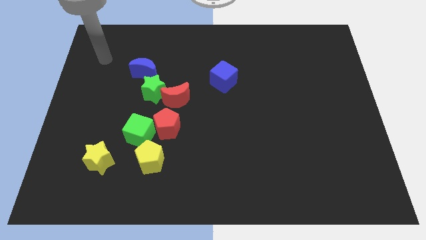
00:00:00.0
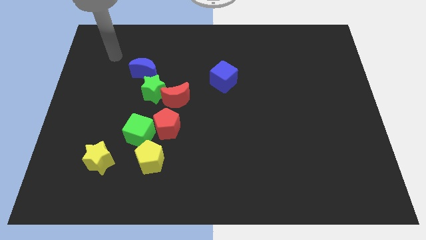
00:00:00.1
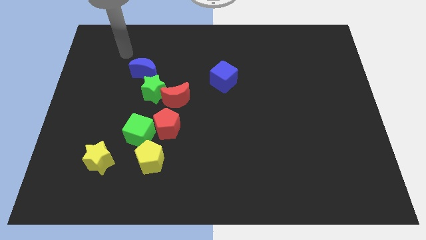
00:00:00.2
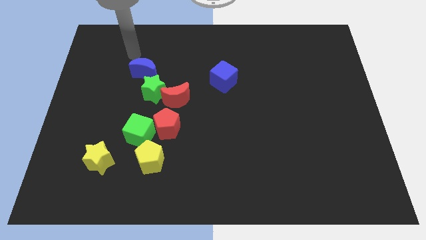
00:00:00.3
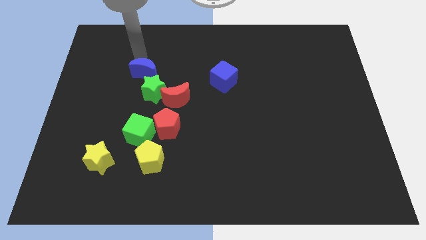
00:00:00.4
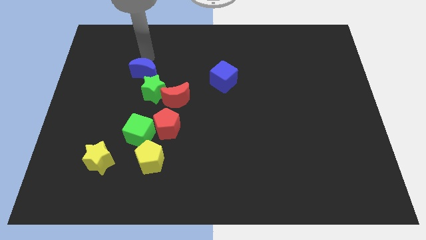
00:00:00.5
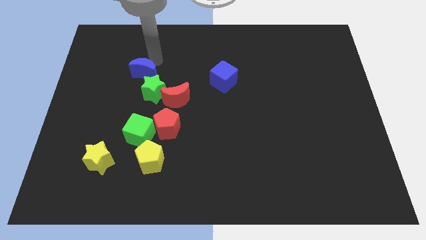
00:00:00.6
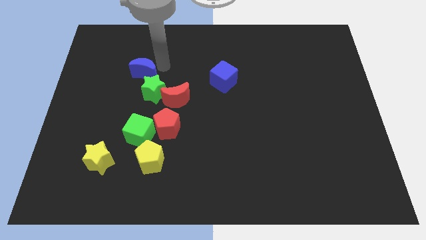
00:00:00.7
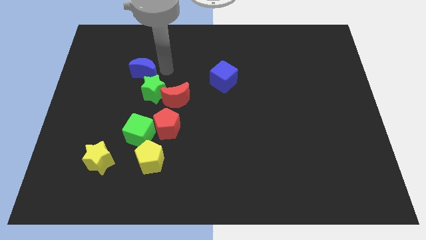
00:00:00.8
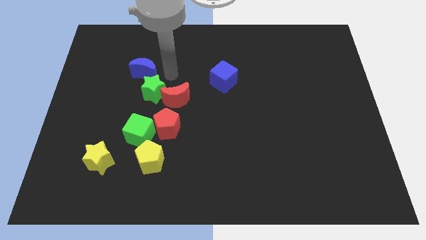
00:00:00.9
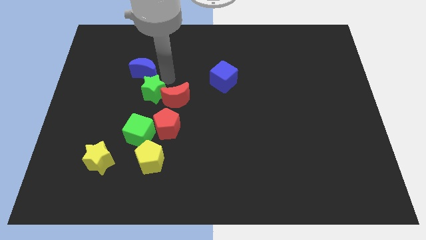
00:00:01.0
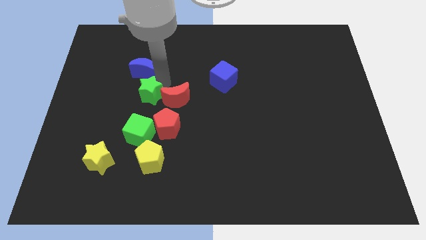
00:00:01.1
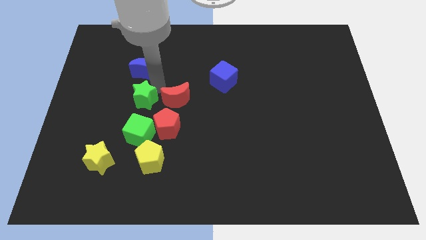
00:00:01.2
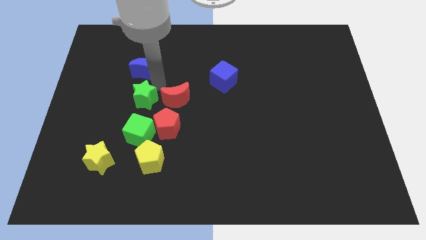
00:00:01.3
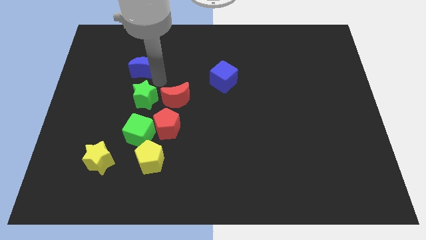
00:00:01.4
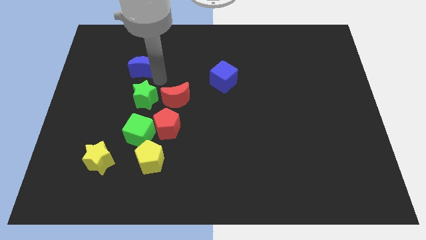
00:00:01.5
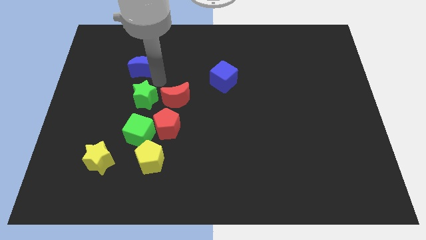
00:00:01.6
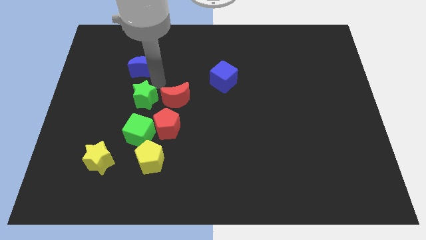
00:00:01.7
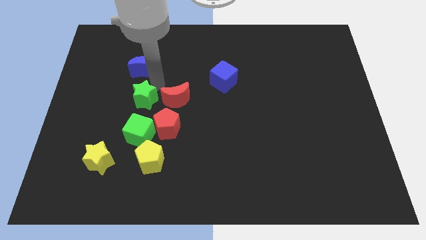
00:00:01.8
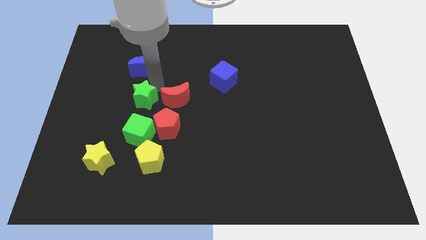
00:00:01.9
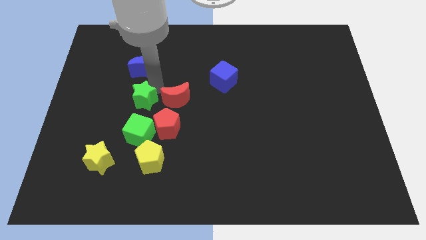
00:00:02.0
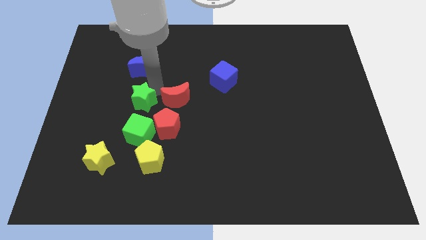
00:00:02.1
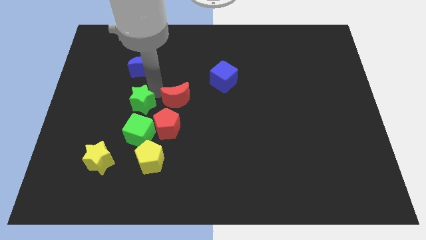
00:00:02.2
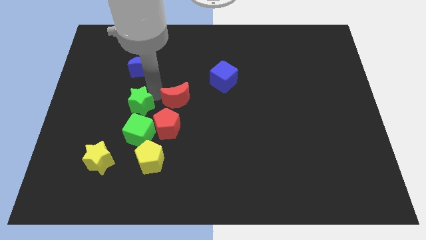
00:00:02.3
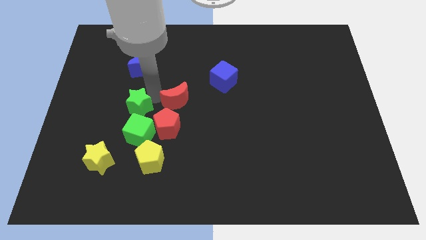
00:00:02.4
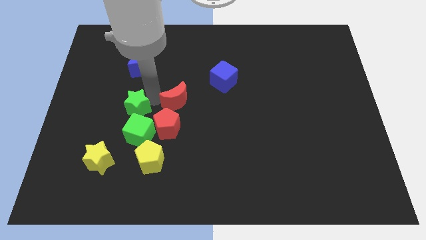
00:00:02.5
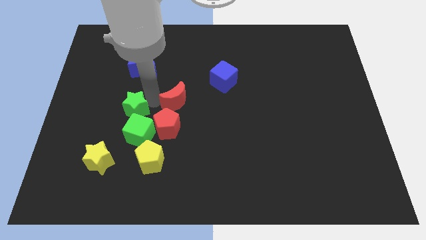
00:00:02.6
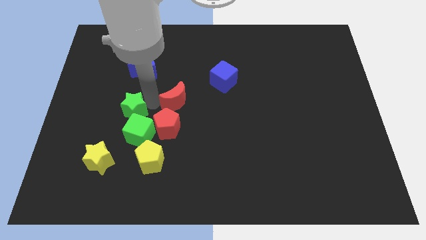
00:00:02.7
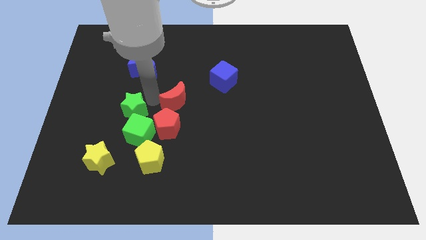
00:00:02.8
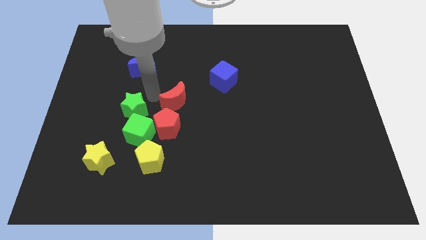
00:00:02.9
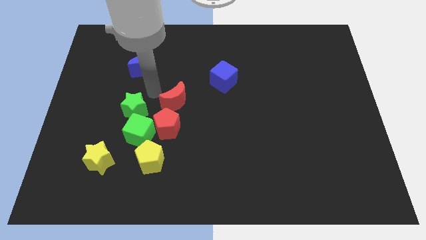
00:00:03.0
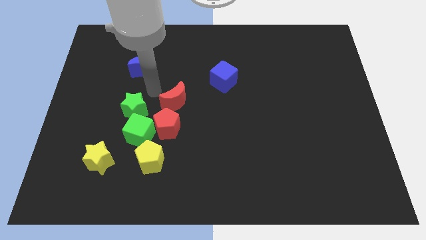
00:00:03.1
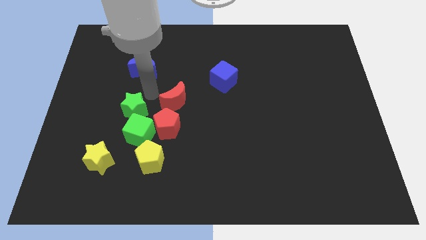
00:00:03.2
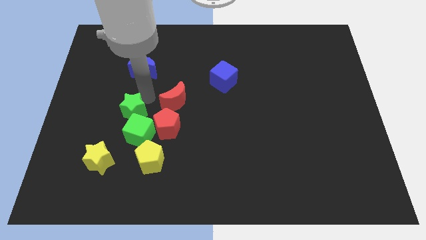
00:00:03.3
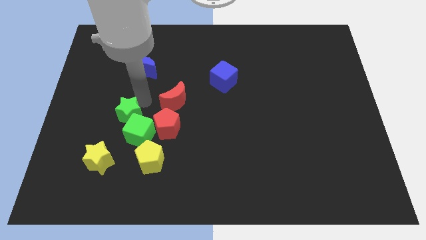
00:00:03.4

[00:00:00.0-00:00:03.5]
move the green star away from the red moon and blue moon

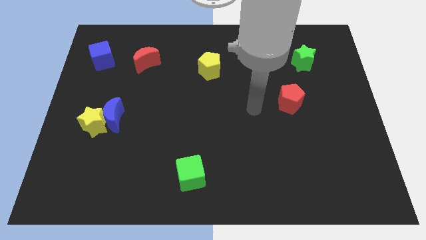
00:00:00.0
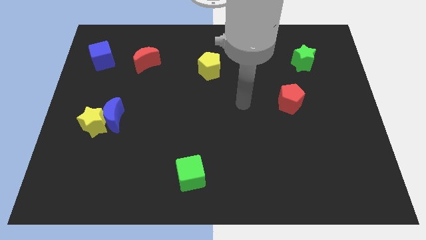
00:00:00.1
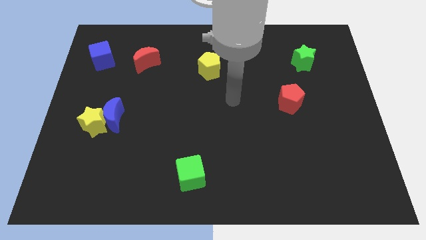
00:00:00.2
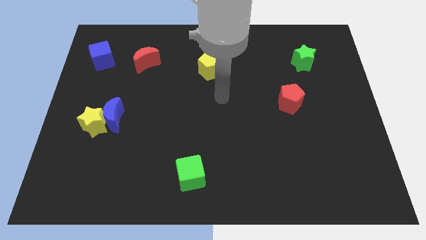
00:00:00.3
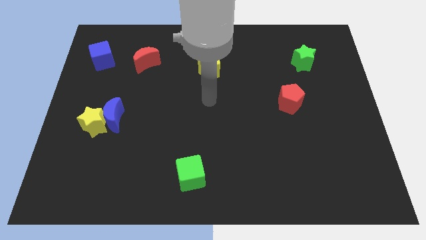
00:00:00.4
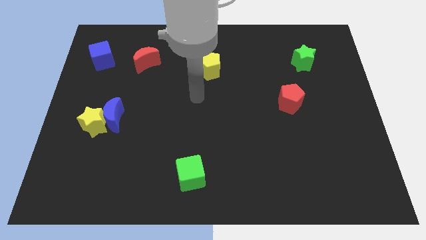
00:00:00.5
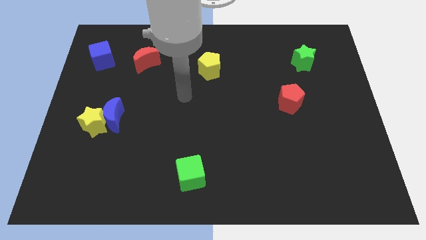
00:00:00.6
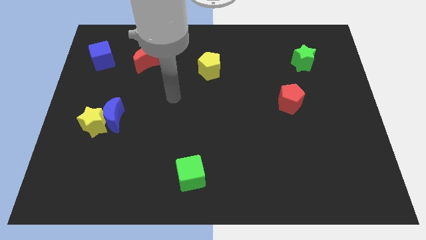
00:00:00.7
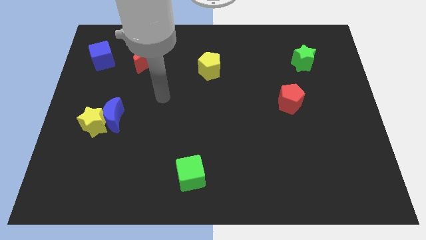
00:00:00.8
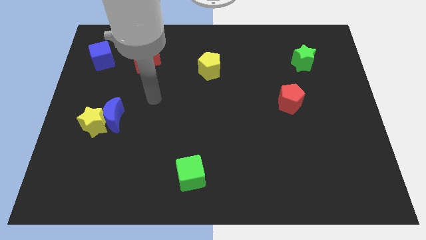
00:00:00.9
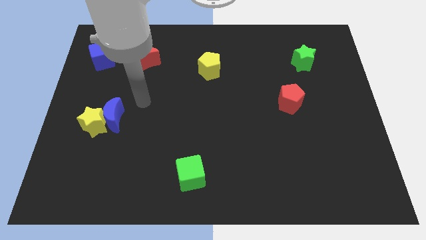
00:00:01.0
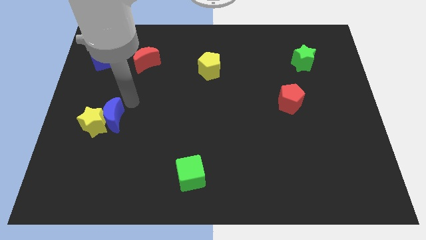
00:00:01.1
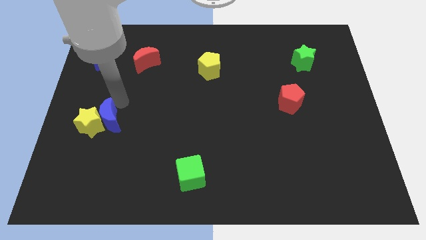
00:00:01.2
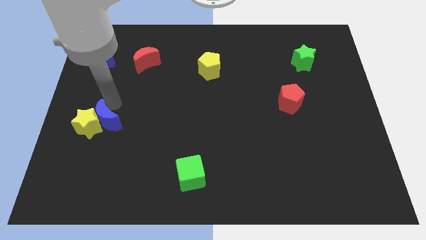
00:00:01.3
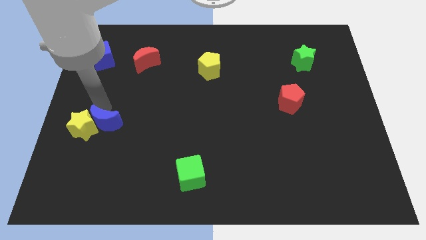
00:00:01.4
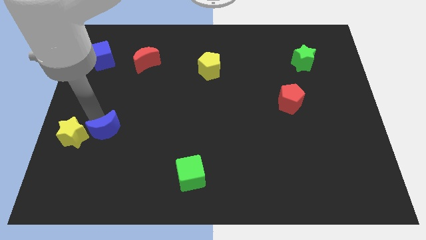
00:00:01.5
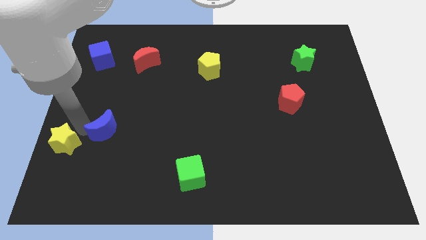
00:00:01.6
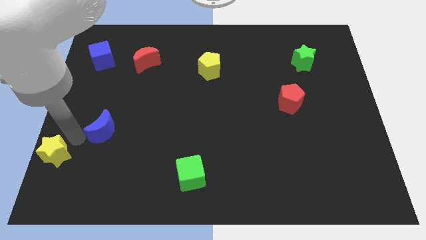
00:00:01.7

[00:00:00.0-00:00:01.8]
pull the blue moon apart from the yellow star

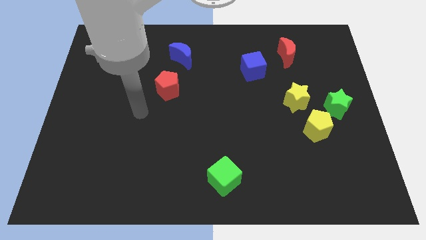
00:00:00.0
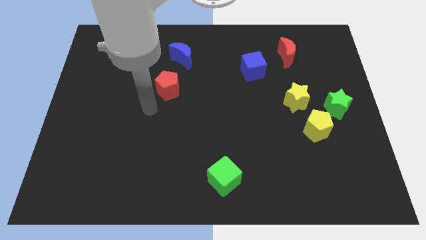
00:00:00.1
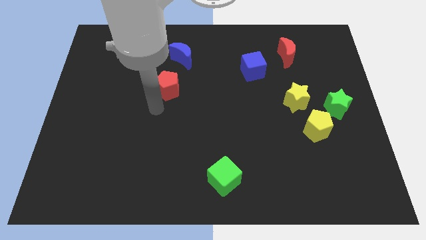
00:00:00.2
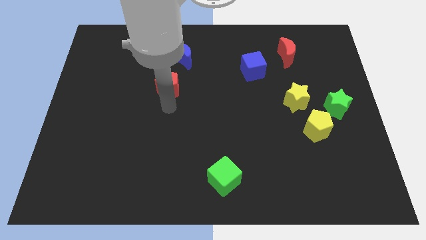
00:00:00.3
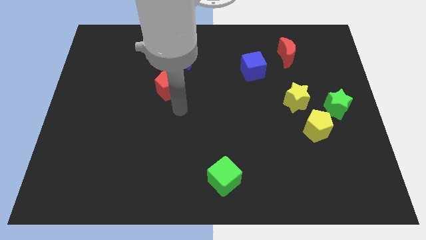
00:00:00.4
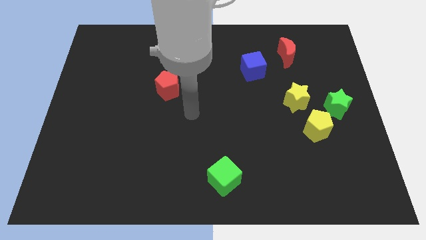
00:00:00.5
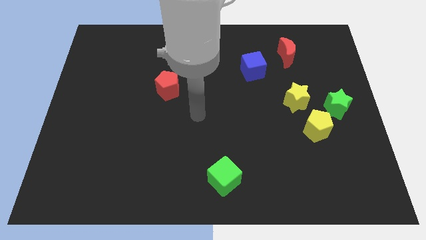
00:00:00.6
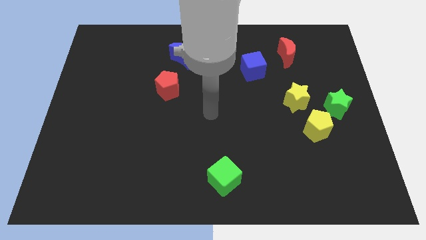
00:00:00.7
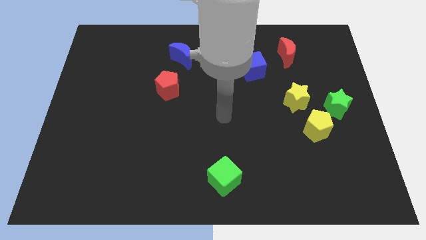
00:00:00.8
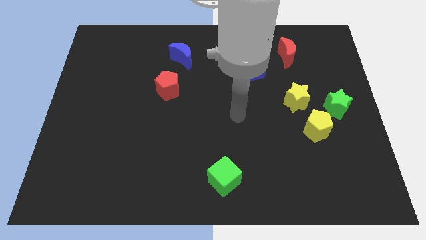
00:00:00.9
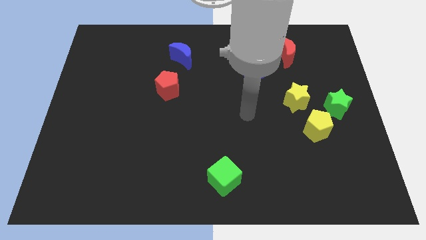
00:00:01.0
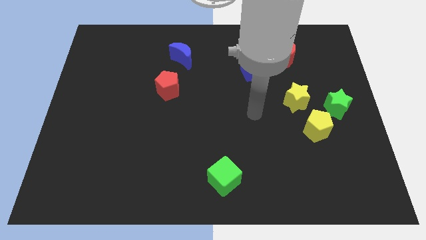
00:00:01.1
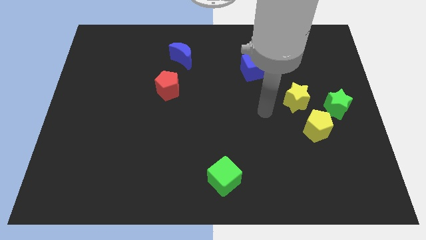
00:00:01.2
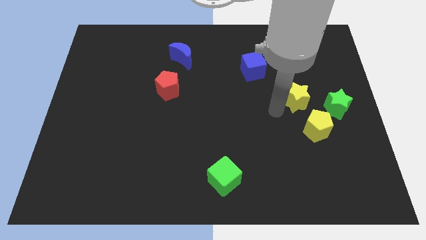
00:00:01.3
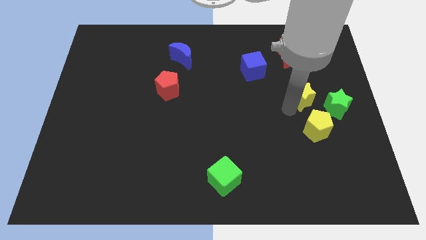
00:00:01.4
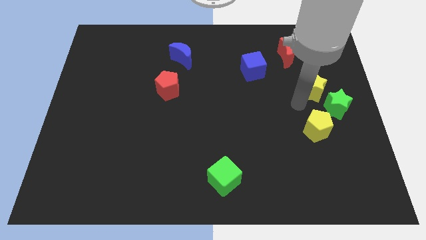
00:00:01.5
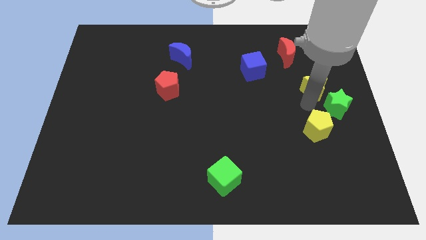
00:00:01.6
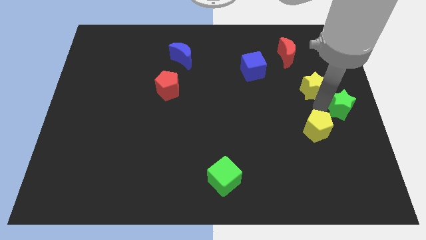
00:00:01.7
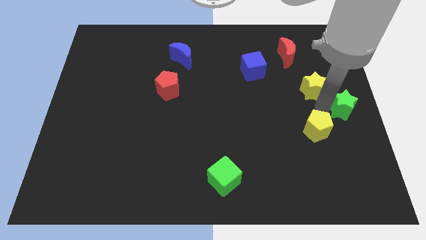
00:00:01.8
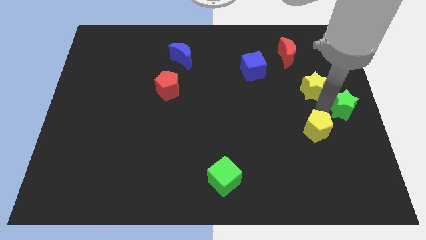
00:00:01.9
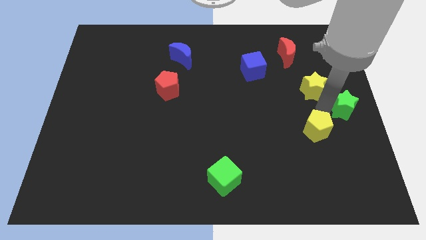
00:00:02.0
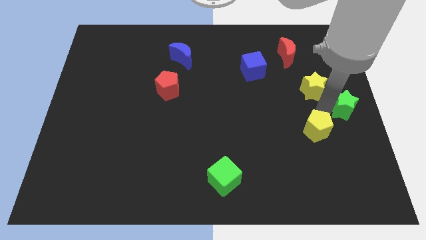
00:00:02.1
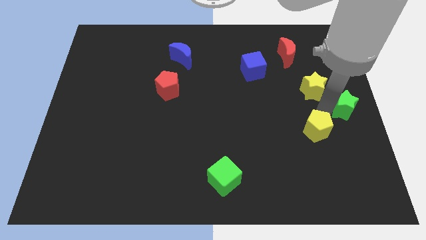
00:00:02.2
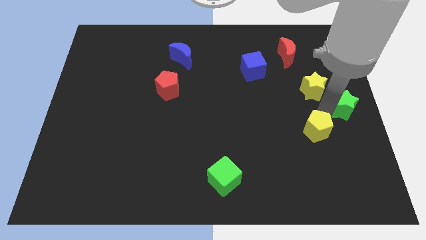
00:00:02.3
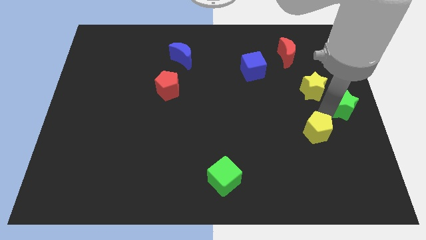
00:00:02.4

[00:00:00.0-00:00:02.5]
pull the yellow pentagon apart from the green star and yellow star

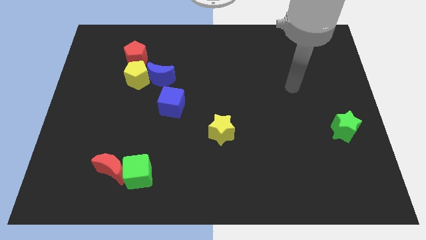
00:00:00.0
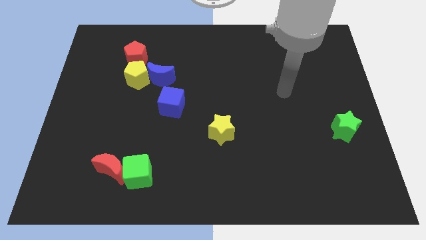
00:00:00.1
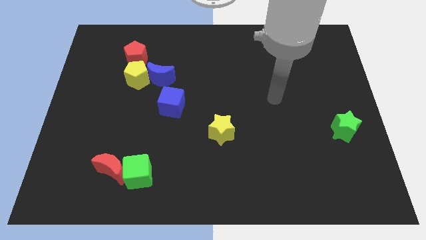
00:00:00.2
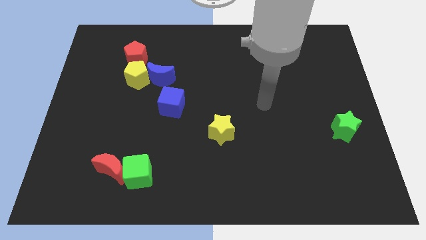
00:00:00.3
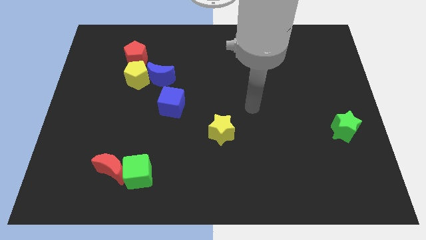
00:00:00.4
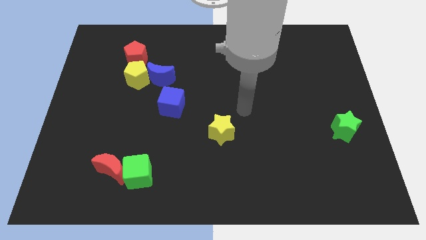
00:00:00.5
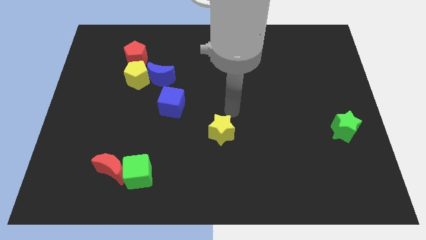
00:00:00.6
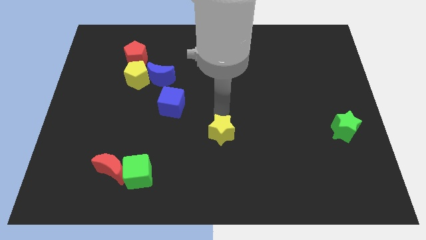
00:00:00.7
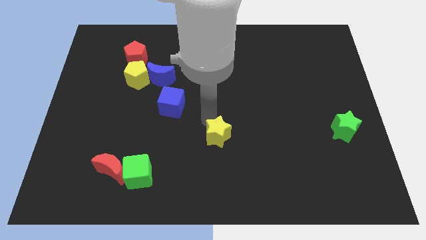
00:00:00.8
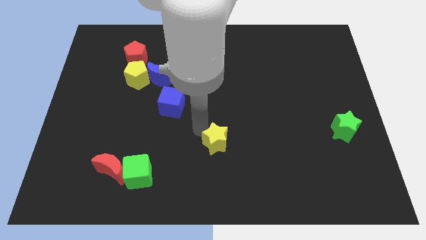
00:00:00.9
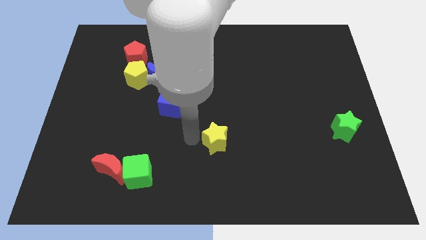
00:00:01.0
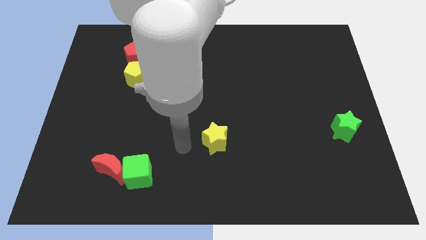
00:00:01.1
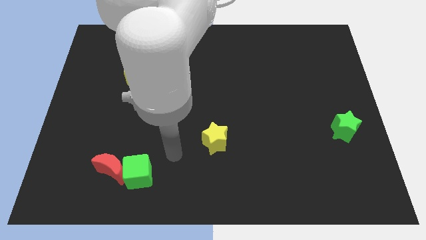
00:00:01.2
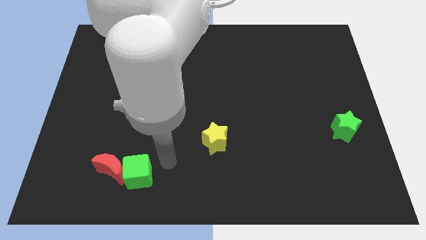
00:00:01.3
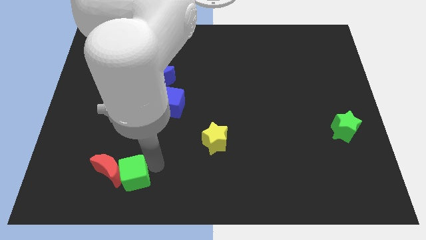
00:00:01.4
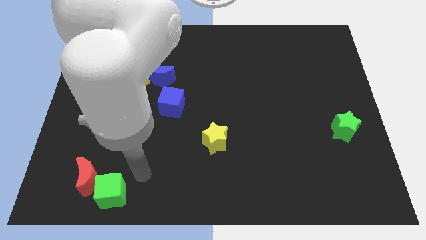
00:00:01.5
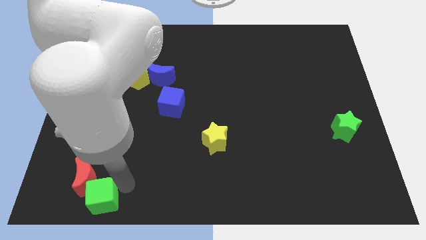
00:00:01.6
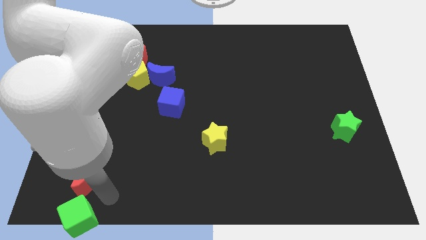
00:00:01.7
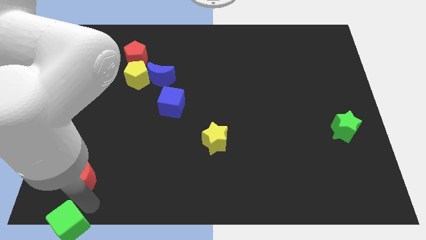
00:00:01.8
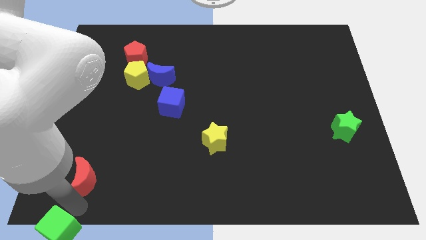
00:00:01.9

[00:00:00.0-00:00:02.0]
move the red moon away from the green cube
